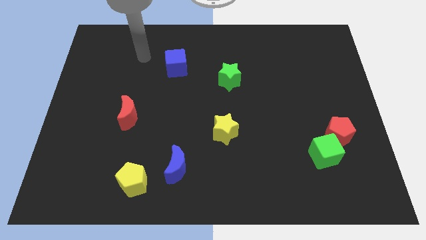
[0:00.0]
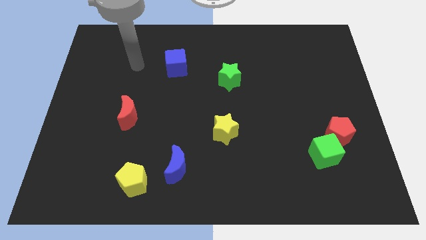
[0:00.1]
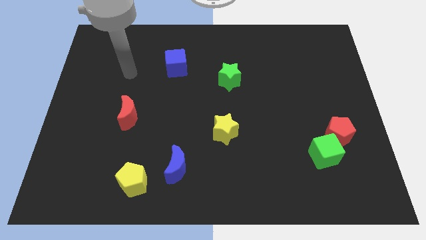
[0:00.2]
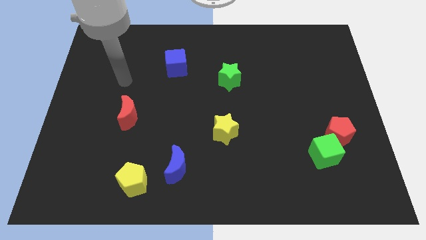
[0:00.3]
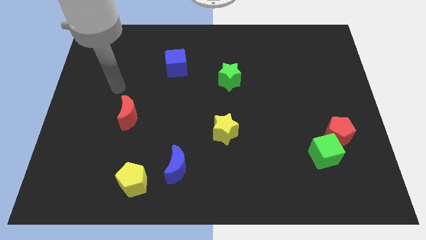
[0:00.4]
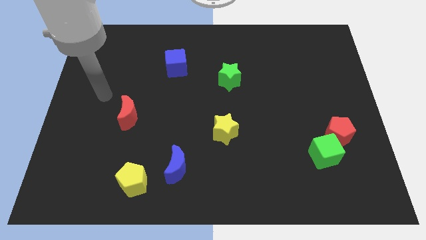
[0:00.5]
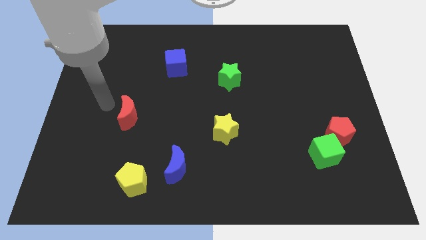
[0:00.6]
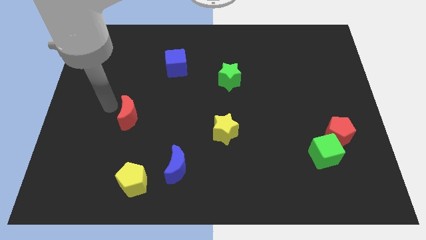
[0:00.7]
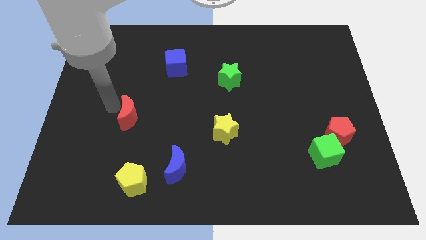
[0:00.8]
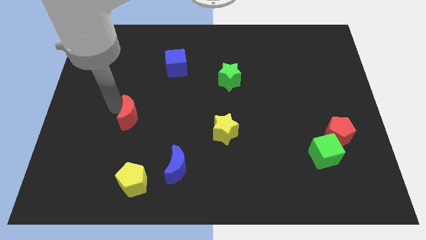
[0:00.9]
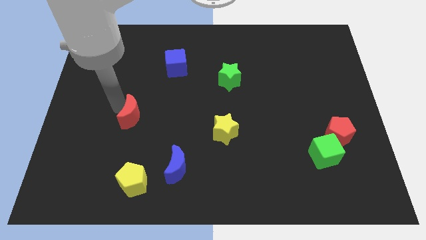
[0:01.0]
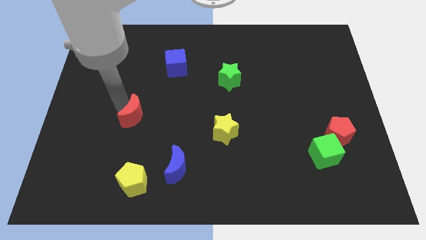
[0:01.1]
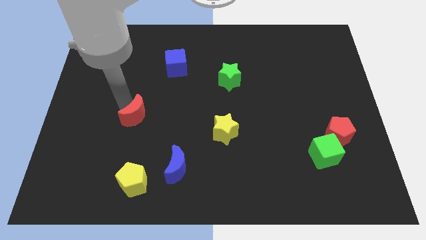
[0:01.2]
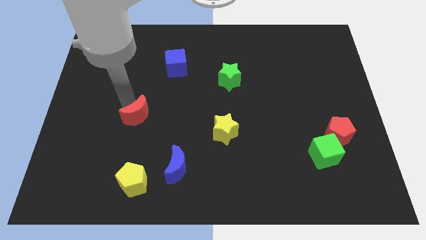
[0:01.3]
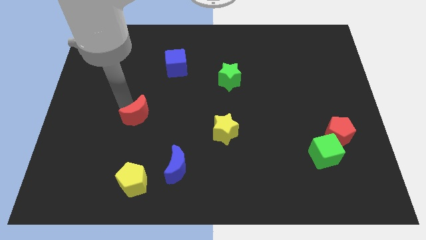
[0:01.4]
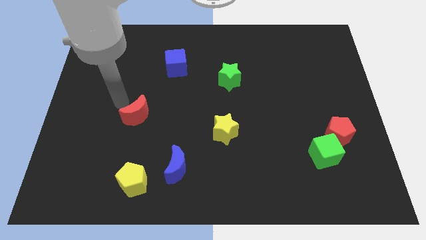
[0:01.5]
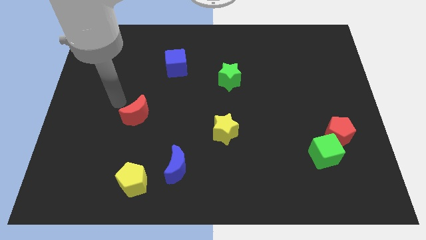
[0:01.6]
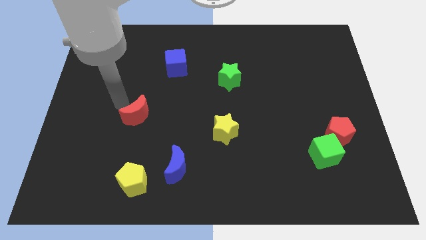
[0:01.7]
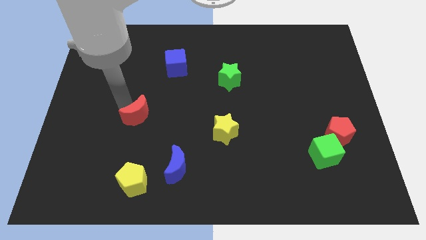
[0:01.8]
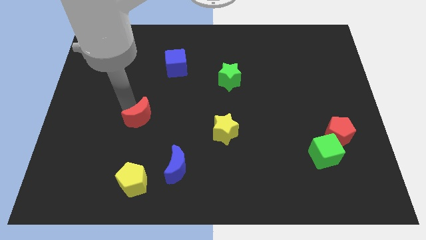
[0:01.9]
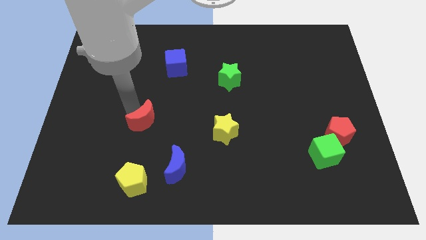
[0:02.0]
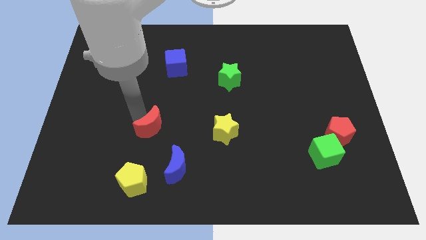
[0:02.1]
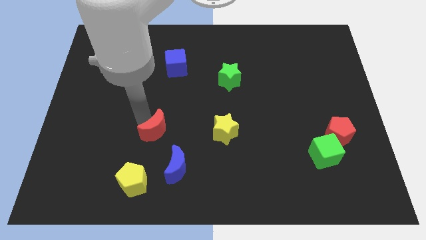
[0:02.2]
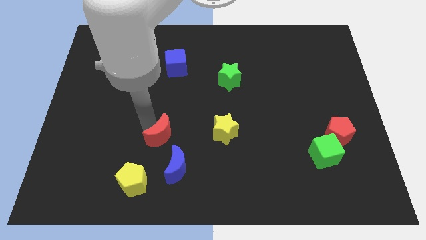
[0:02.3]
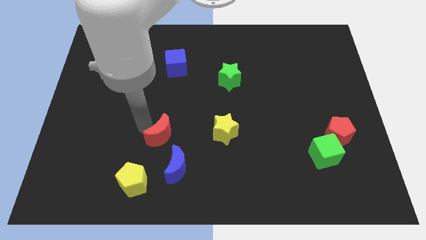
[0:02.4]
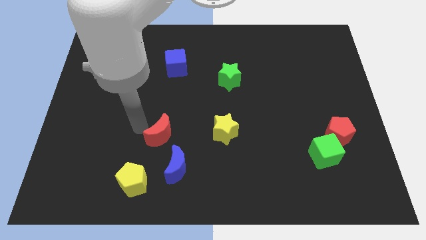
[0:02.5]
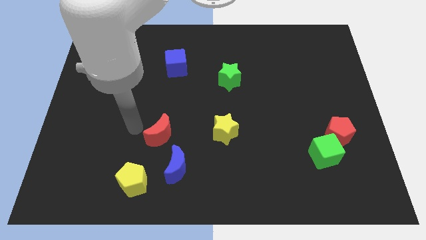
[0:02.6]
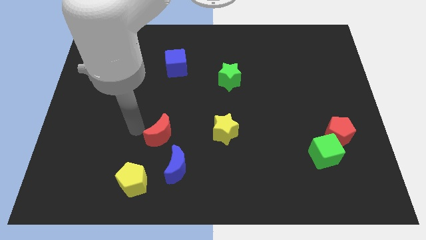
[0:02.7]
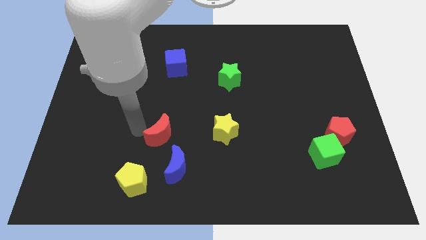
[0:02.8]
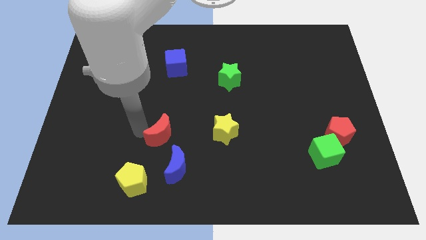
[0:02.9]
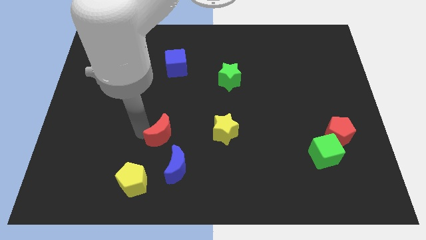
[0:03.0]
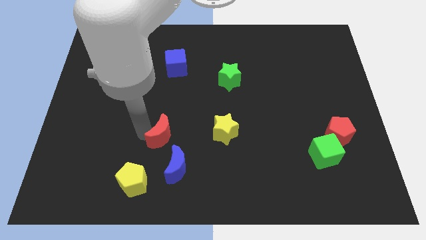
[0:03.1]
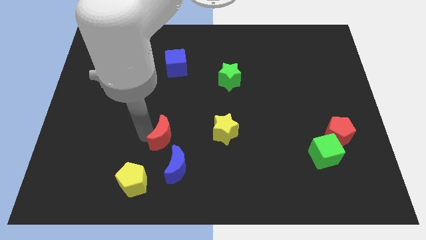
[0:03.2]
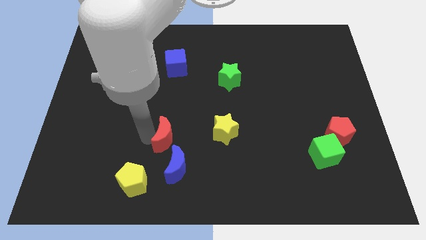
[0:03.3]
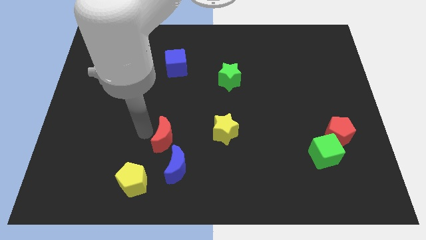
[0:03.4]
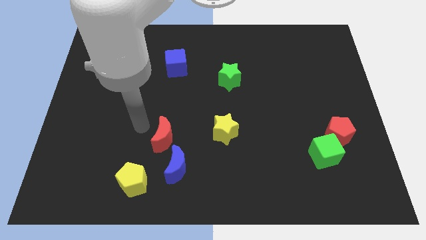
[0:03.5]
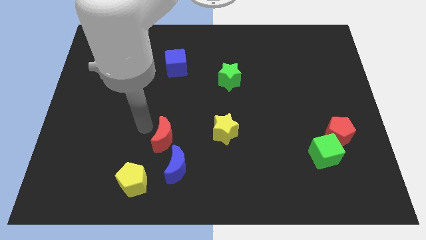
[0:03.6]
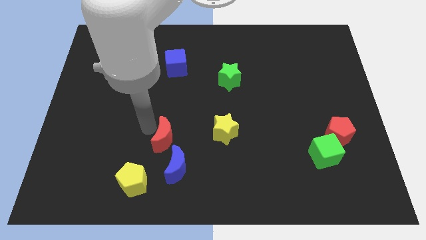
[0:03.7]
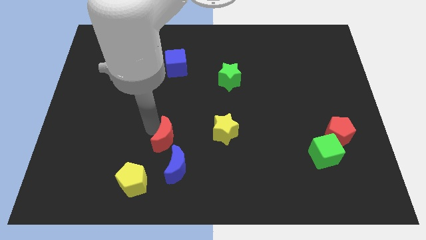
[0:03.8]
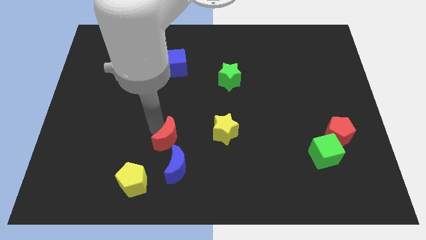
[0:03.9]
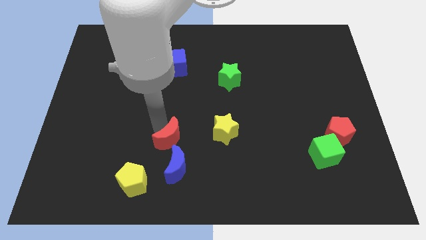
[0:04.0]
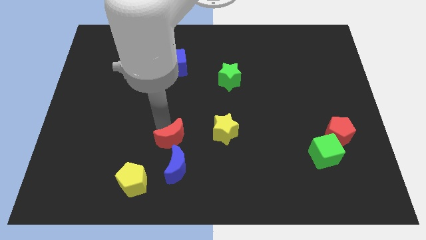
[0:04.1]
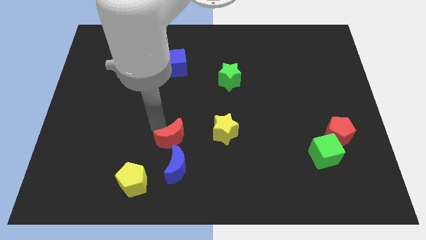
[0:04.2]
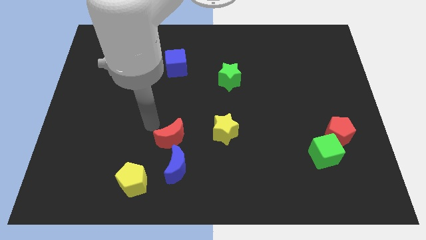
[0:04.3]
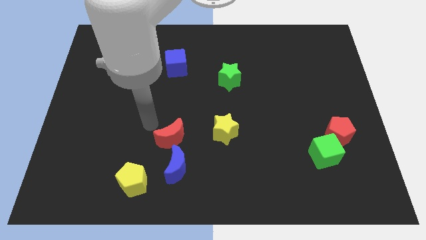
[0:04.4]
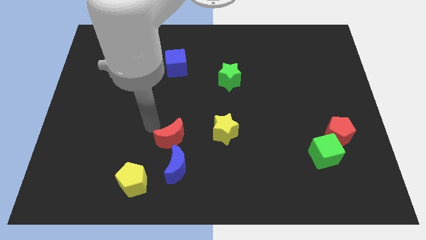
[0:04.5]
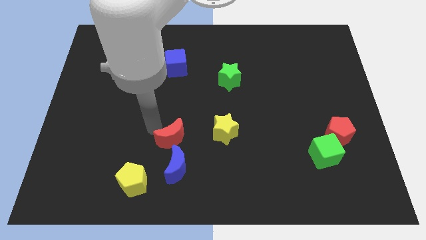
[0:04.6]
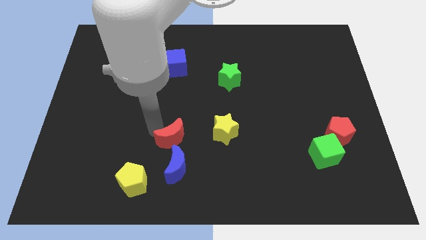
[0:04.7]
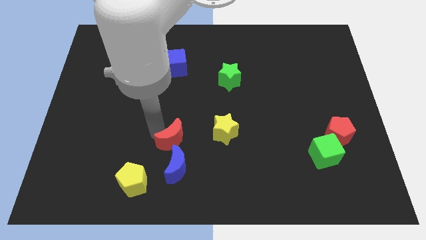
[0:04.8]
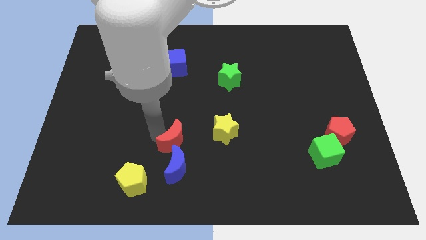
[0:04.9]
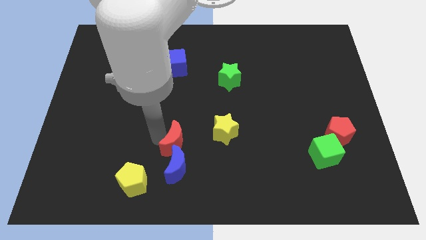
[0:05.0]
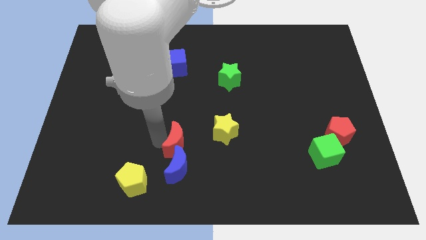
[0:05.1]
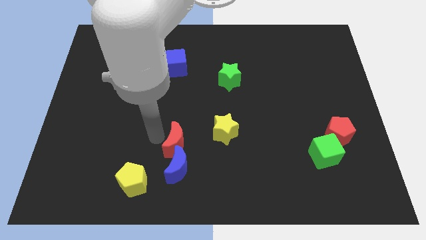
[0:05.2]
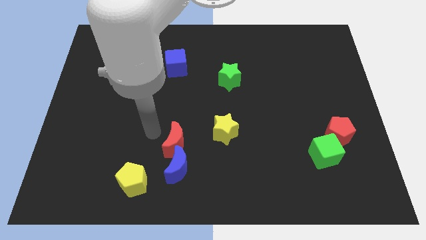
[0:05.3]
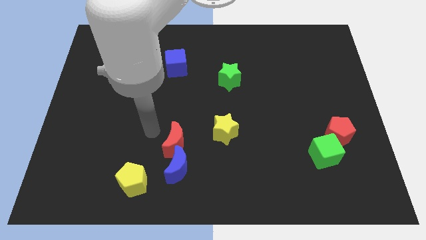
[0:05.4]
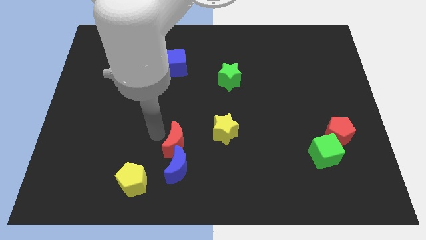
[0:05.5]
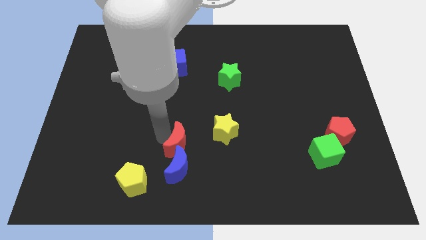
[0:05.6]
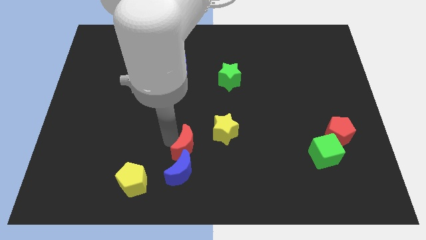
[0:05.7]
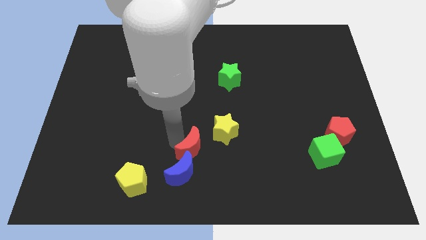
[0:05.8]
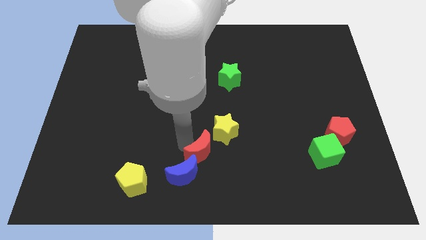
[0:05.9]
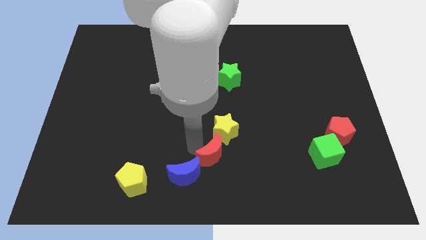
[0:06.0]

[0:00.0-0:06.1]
push the red moon right of the blue moon

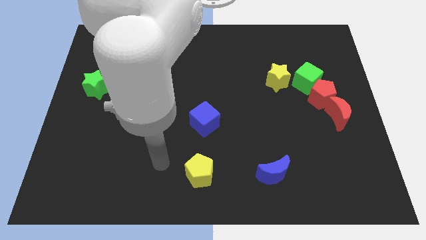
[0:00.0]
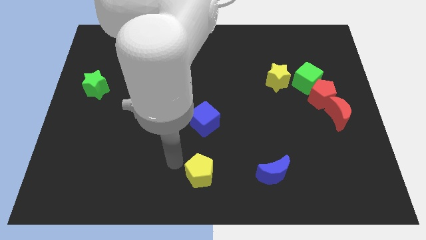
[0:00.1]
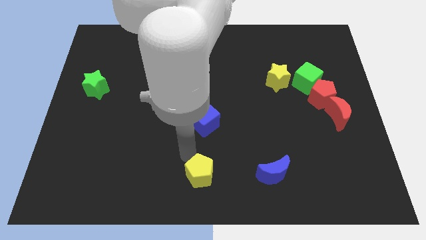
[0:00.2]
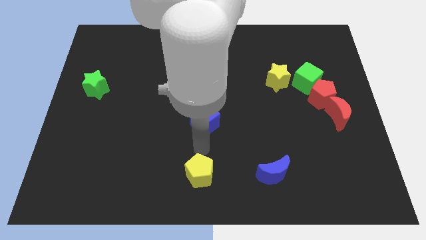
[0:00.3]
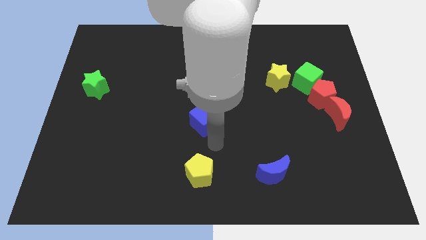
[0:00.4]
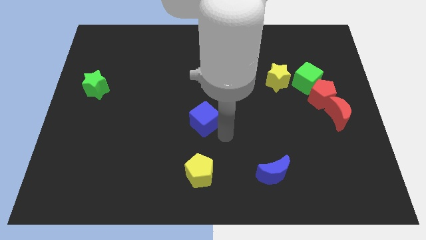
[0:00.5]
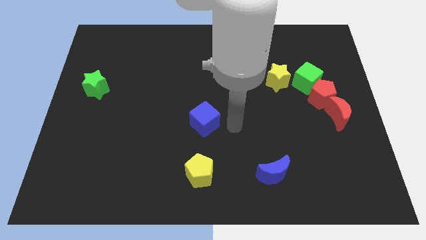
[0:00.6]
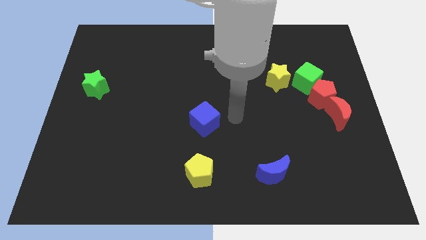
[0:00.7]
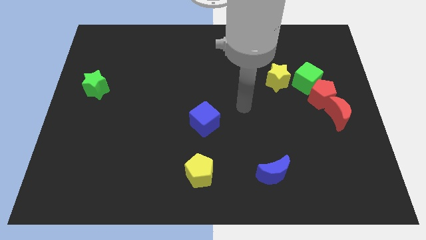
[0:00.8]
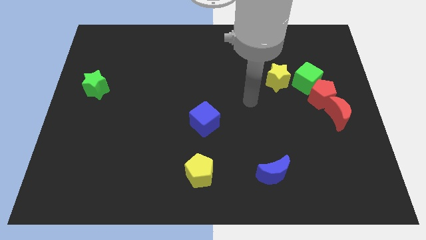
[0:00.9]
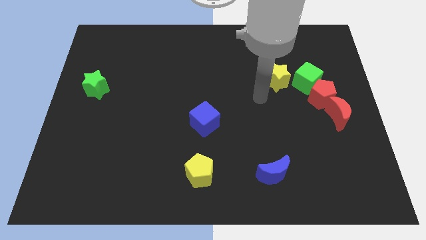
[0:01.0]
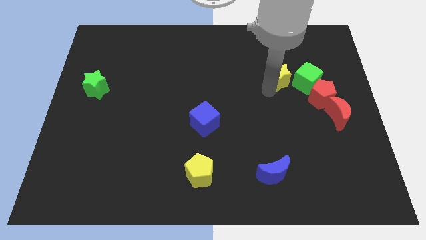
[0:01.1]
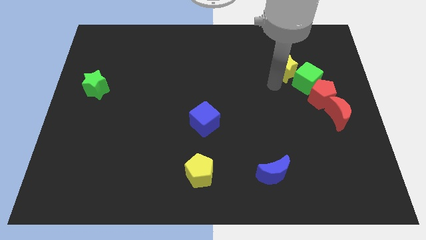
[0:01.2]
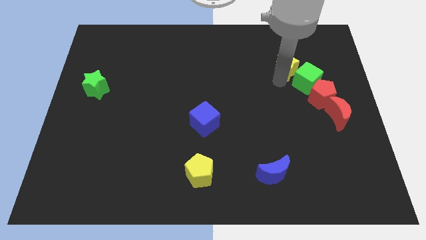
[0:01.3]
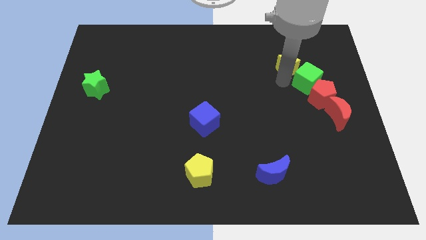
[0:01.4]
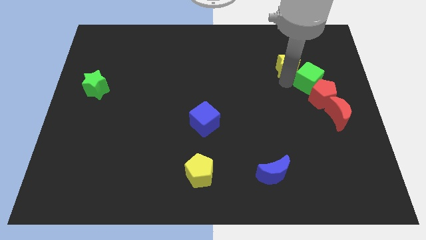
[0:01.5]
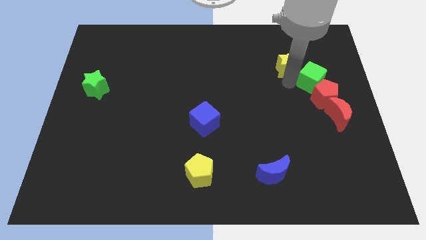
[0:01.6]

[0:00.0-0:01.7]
put the green cube to the top side of the red moon
